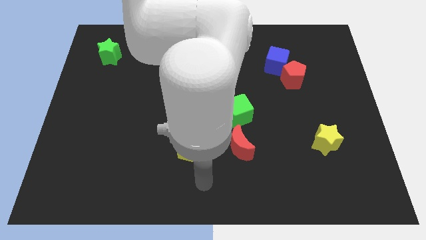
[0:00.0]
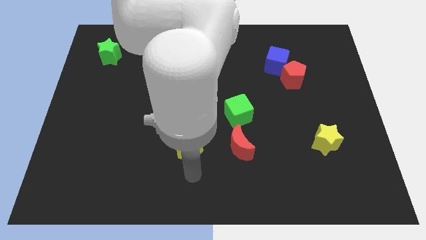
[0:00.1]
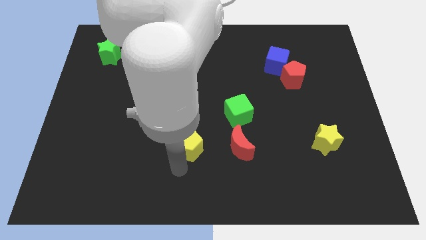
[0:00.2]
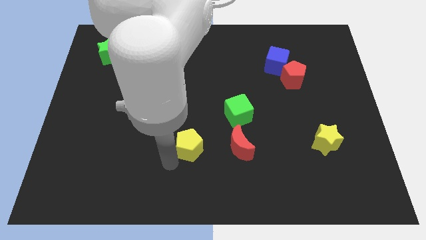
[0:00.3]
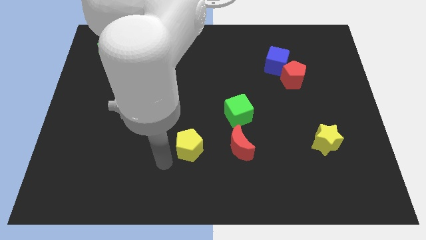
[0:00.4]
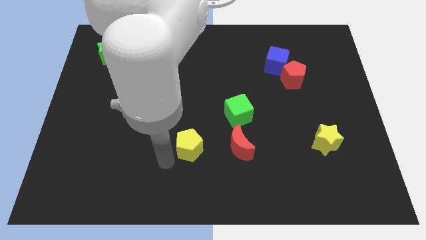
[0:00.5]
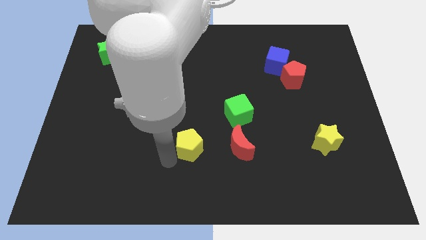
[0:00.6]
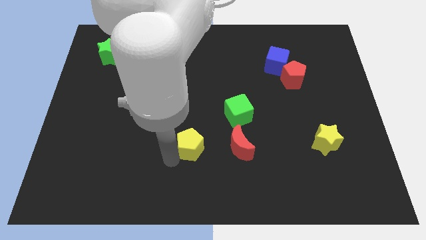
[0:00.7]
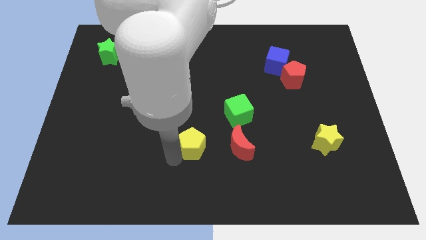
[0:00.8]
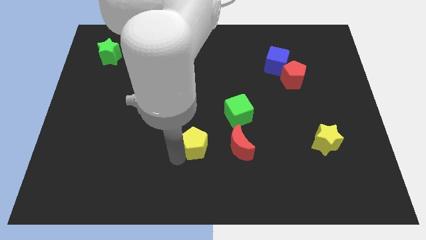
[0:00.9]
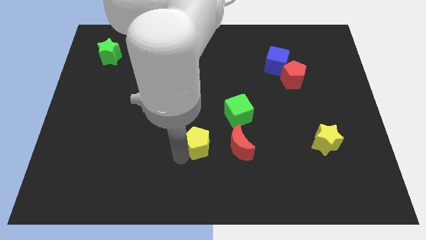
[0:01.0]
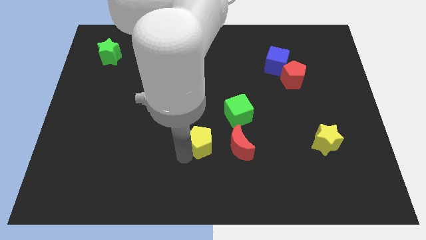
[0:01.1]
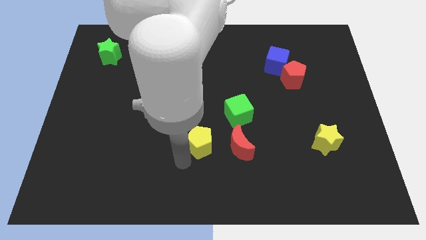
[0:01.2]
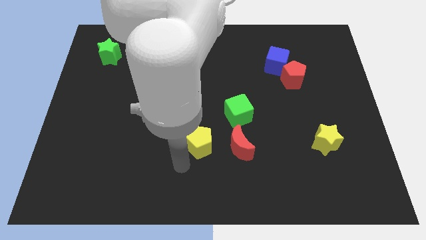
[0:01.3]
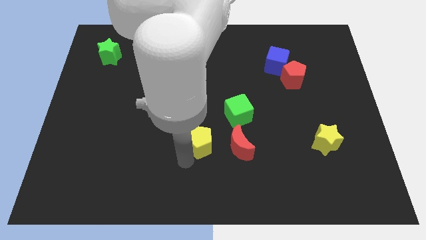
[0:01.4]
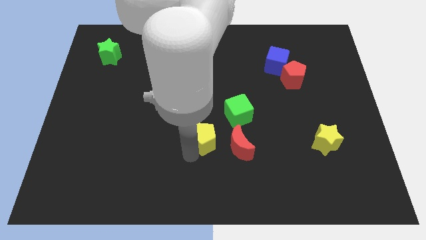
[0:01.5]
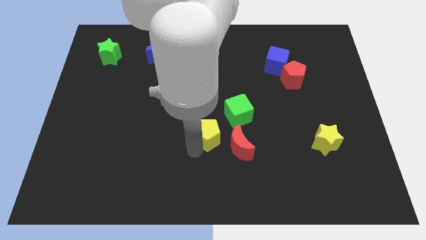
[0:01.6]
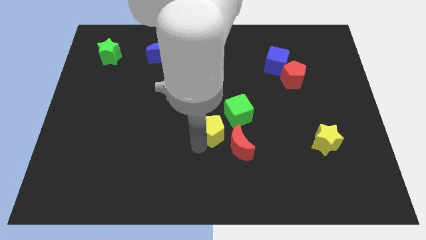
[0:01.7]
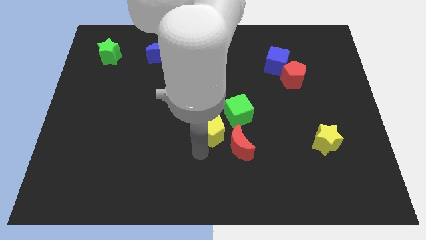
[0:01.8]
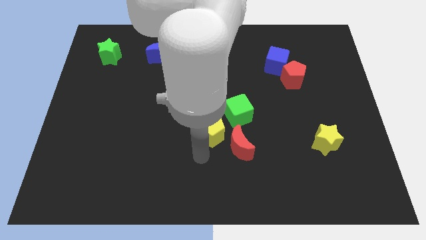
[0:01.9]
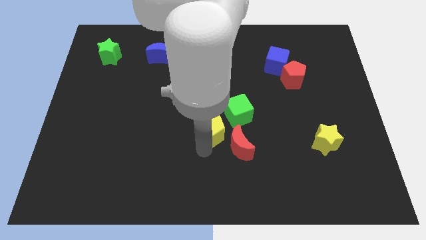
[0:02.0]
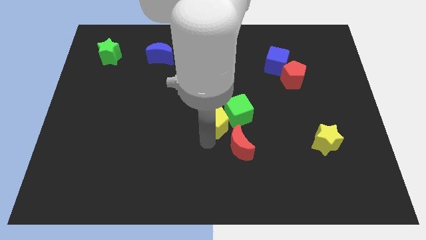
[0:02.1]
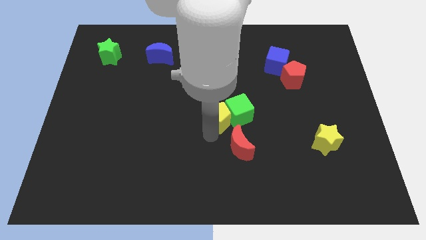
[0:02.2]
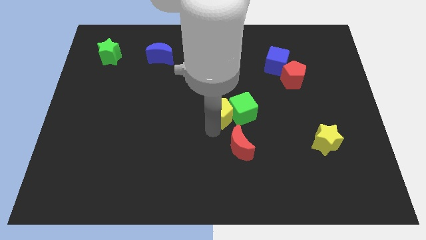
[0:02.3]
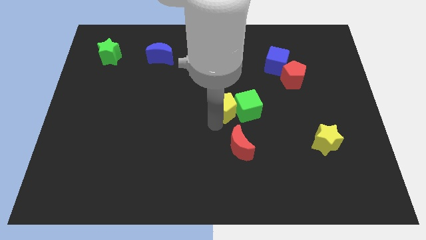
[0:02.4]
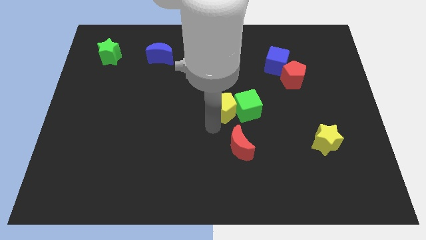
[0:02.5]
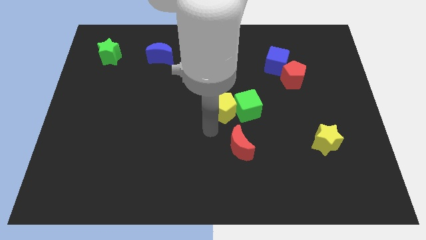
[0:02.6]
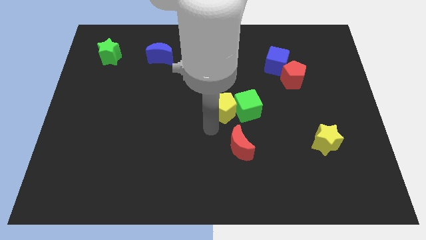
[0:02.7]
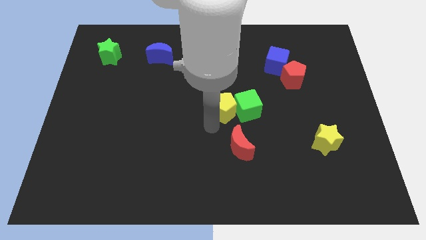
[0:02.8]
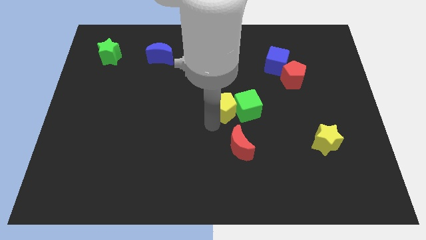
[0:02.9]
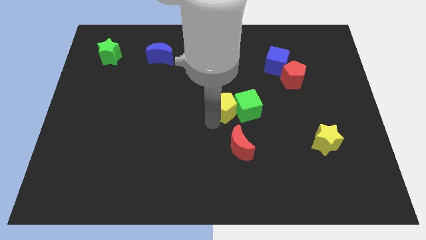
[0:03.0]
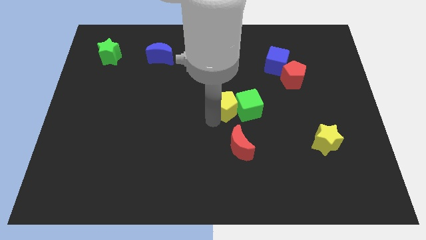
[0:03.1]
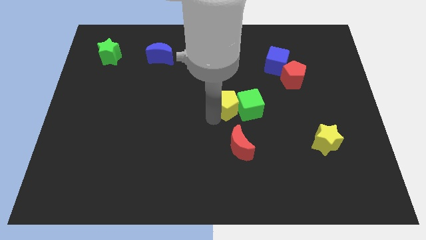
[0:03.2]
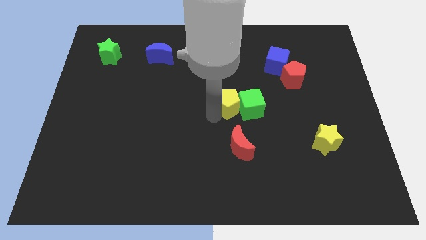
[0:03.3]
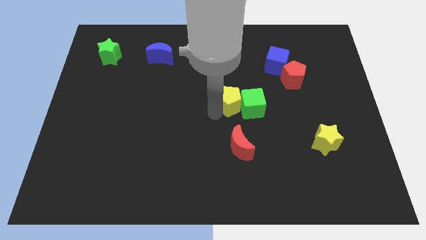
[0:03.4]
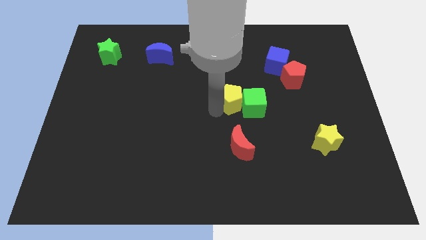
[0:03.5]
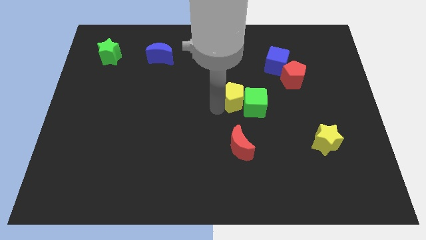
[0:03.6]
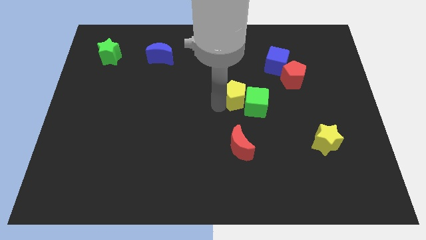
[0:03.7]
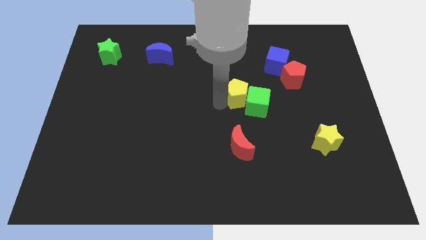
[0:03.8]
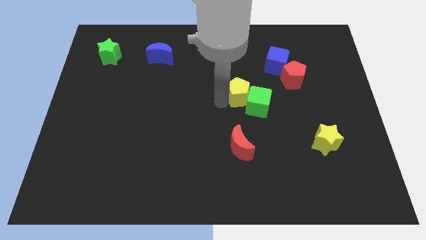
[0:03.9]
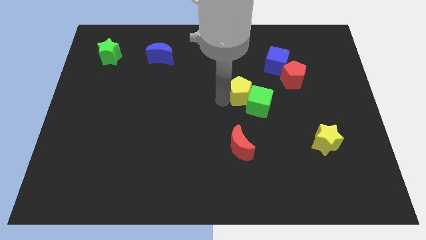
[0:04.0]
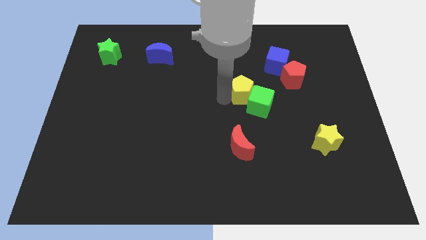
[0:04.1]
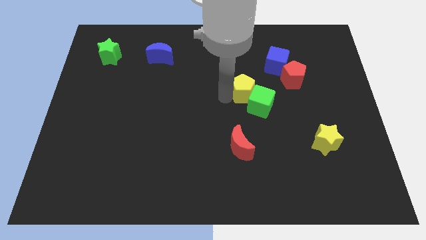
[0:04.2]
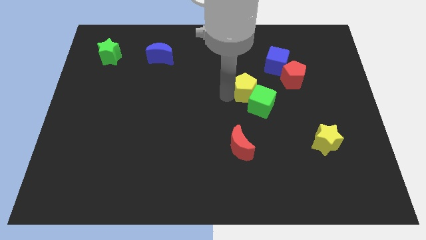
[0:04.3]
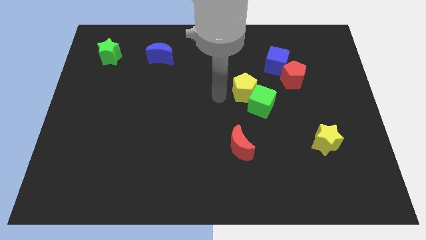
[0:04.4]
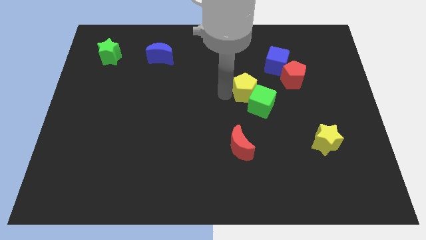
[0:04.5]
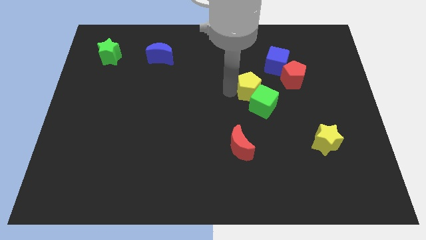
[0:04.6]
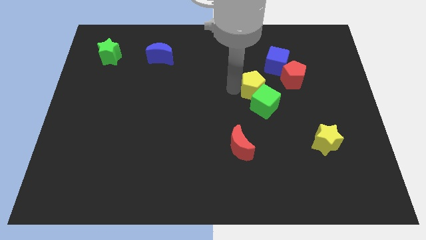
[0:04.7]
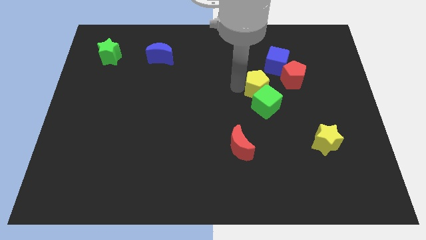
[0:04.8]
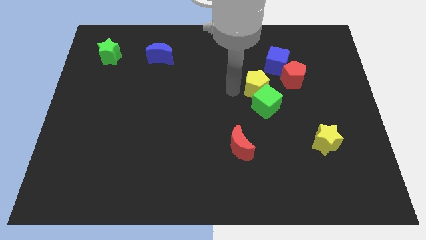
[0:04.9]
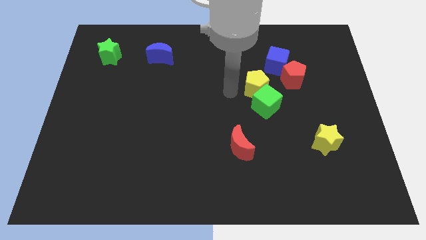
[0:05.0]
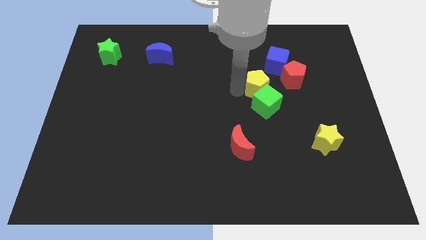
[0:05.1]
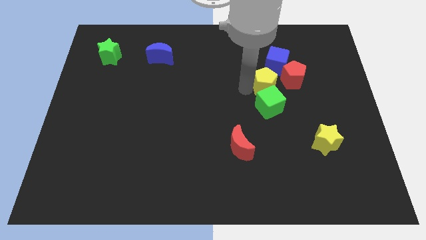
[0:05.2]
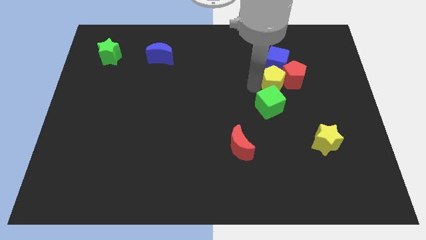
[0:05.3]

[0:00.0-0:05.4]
move the yellow pentagon close to the red pentagon

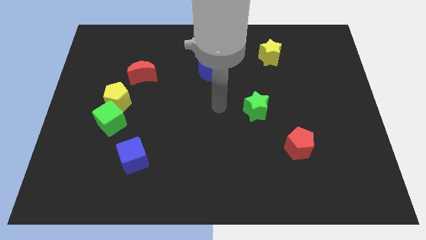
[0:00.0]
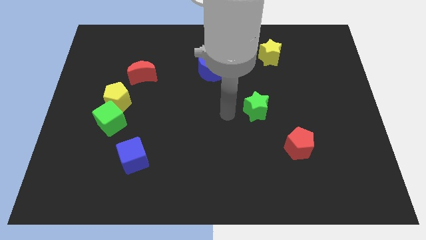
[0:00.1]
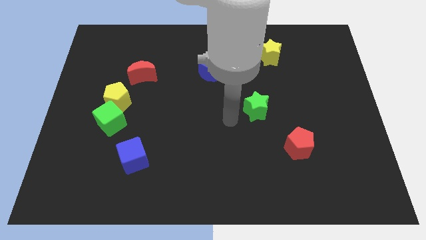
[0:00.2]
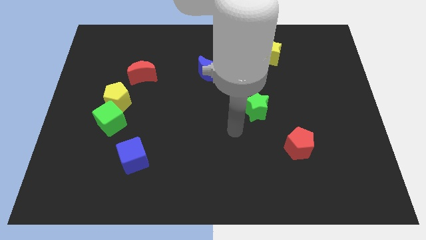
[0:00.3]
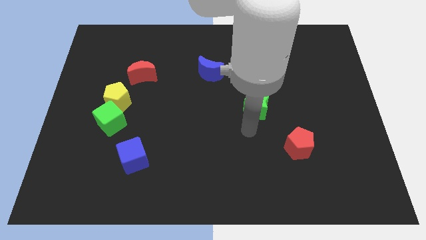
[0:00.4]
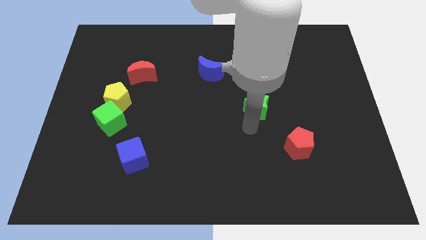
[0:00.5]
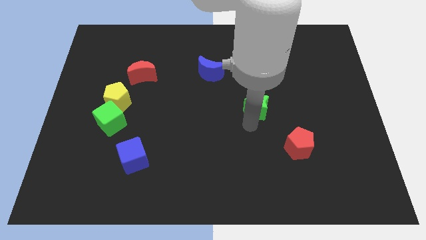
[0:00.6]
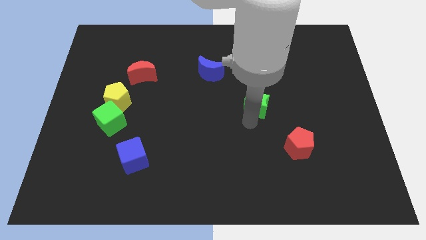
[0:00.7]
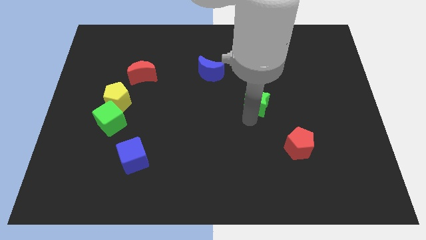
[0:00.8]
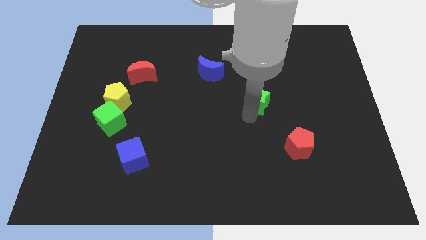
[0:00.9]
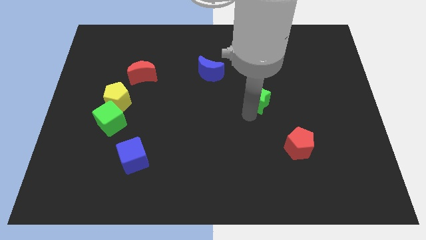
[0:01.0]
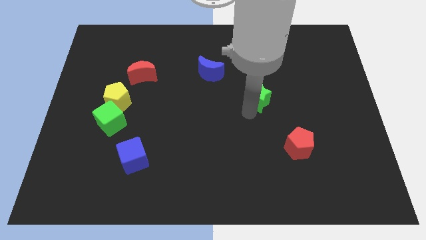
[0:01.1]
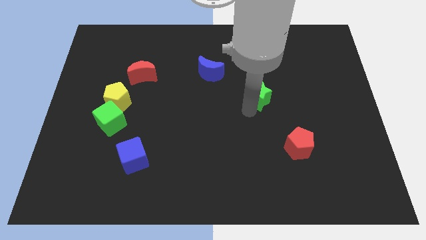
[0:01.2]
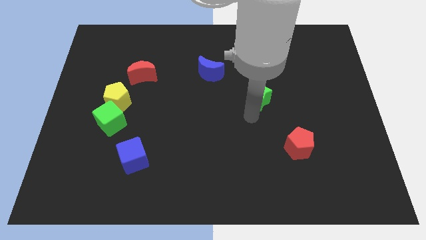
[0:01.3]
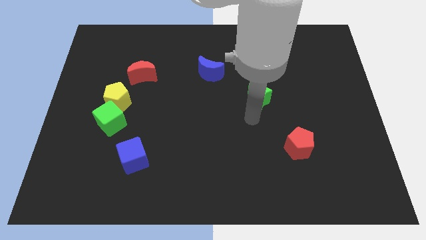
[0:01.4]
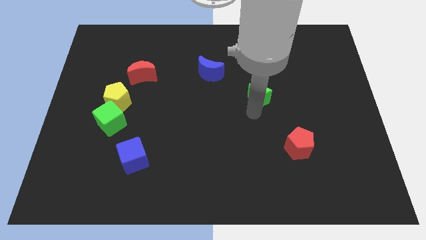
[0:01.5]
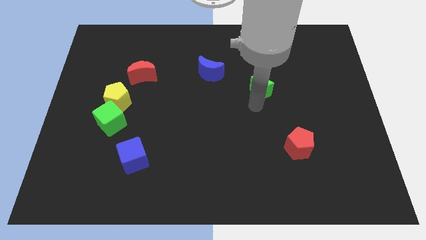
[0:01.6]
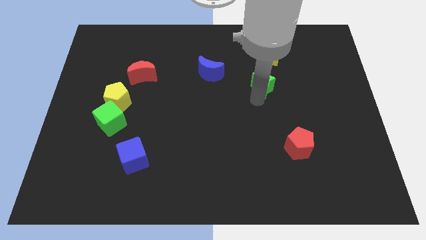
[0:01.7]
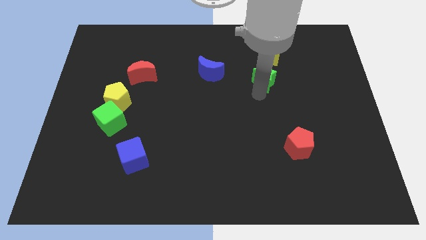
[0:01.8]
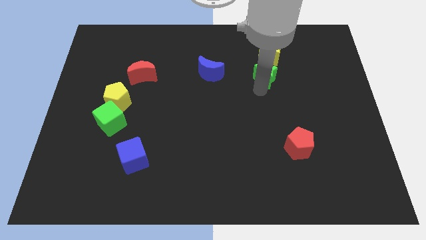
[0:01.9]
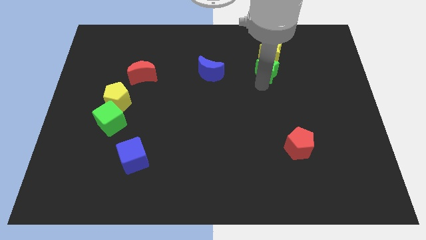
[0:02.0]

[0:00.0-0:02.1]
slide the green star close to the yellow star
